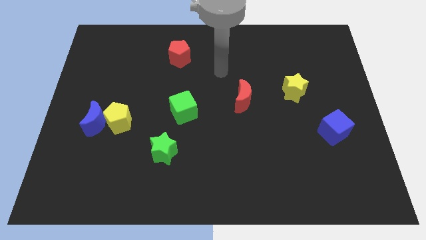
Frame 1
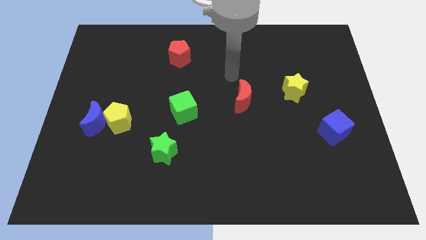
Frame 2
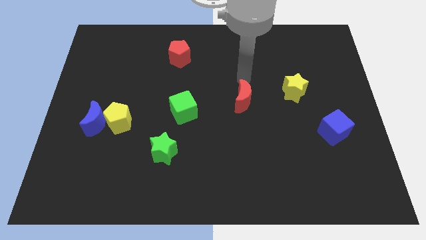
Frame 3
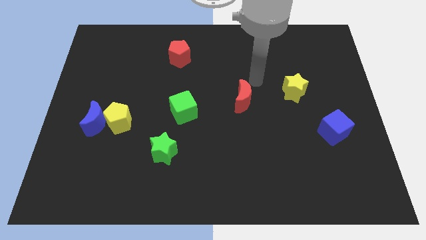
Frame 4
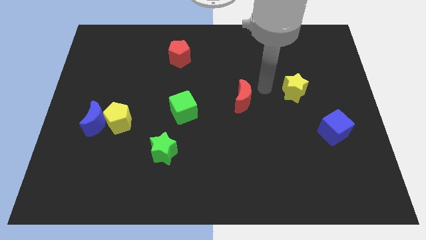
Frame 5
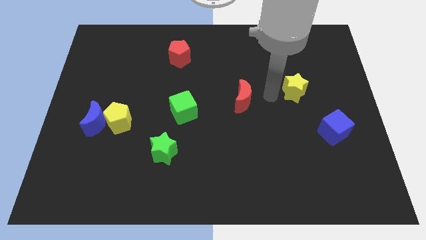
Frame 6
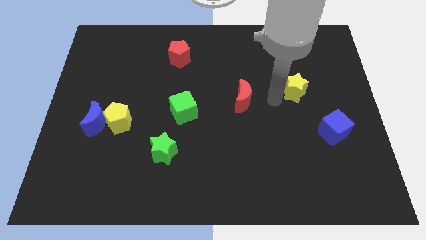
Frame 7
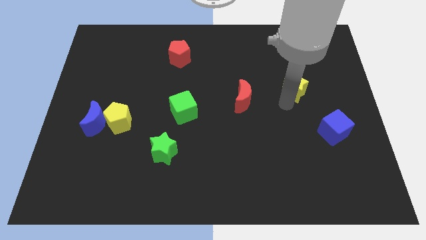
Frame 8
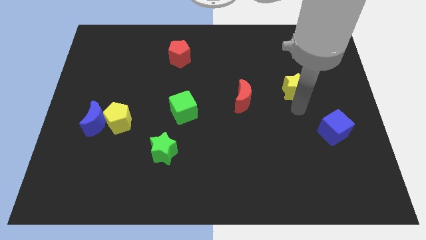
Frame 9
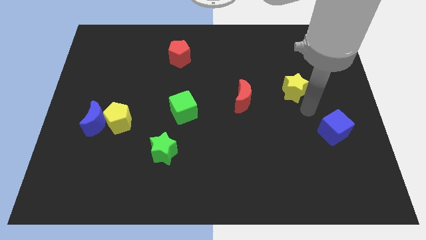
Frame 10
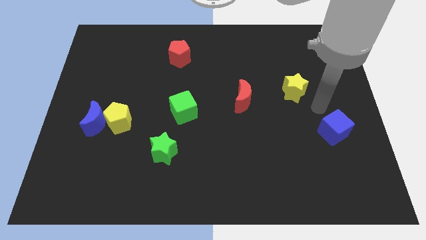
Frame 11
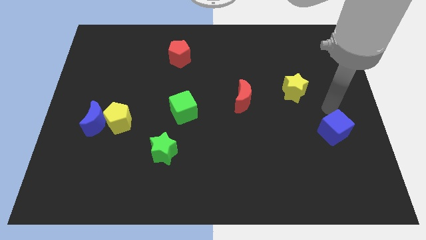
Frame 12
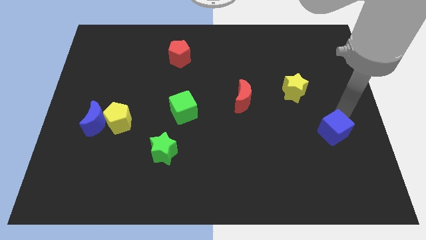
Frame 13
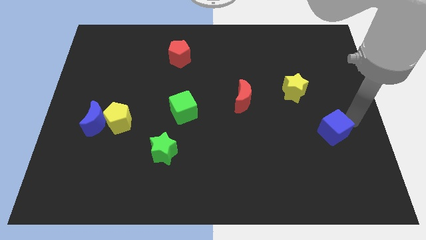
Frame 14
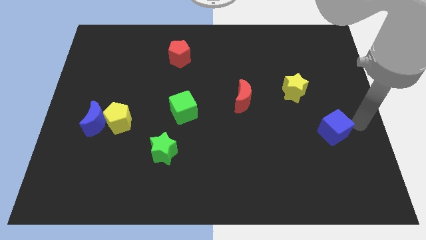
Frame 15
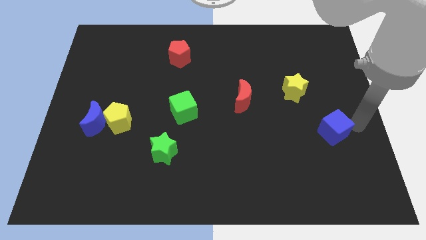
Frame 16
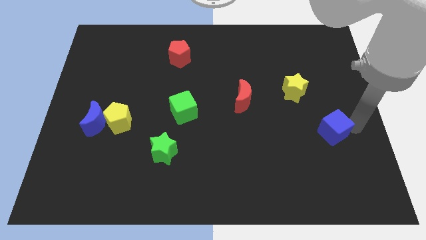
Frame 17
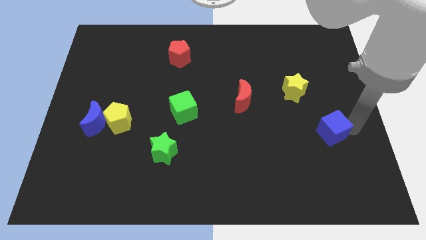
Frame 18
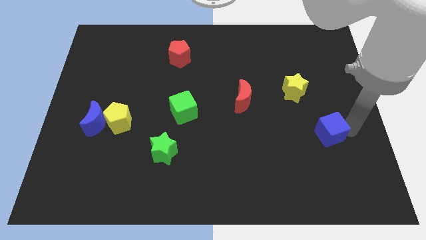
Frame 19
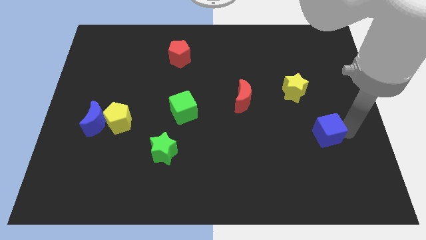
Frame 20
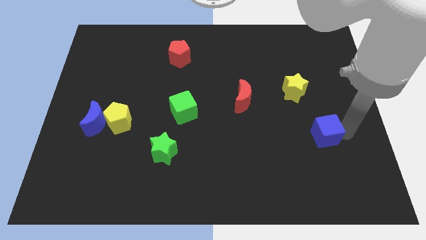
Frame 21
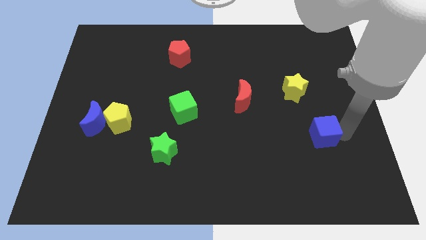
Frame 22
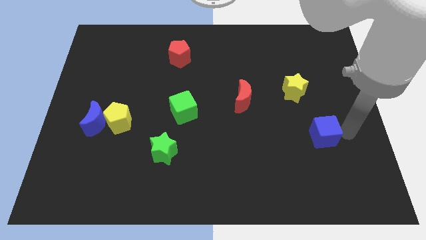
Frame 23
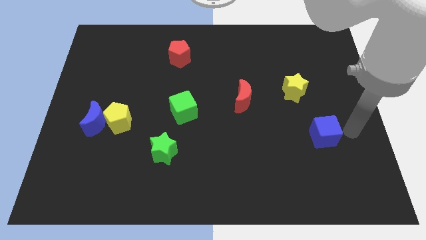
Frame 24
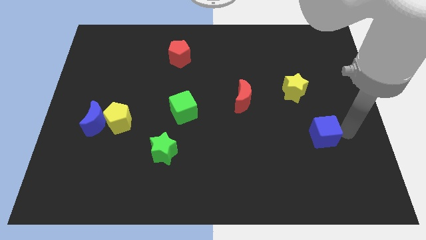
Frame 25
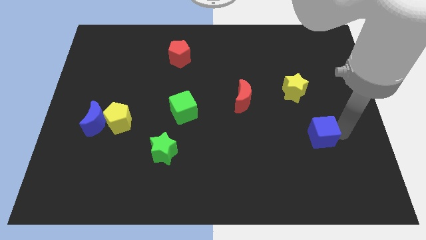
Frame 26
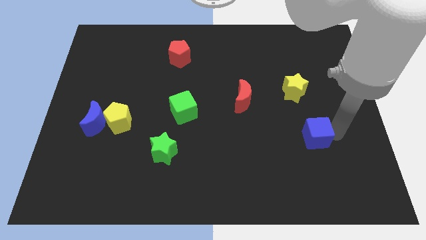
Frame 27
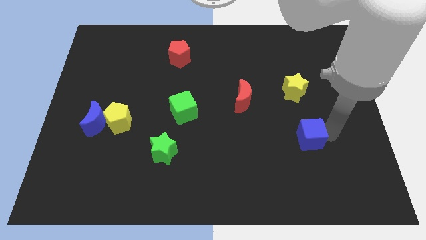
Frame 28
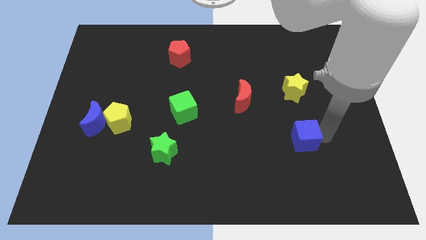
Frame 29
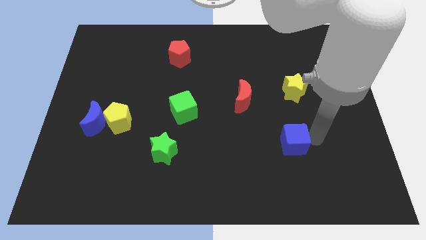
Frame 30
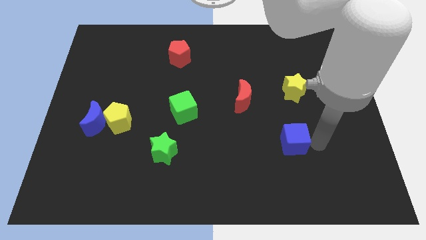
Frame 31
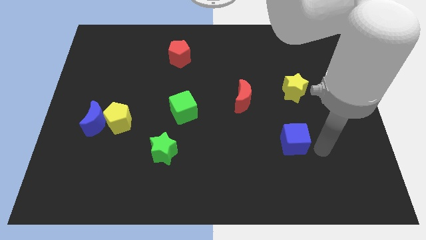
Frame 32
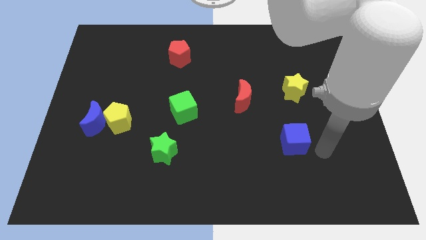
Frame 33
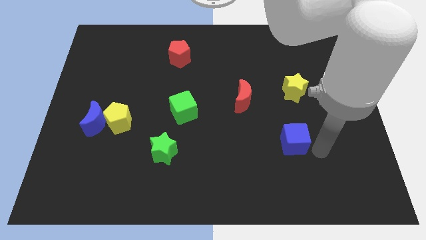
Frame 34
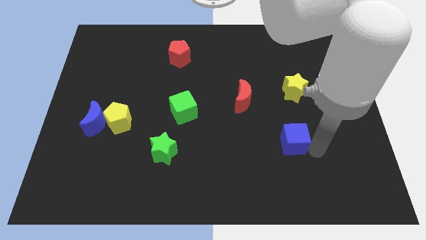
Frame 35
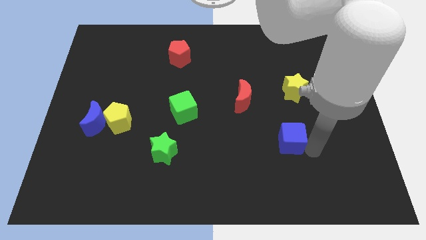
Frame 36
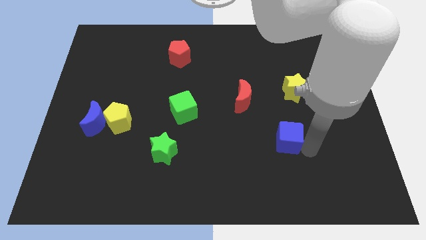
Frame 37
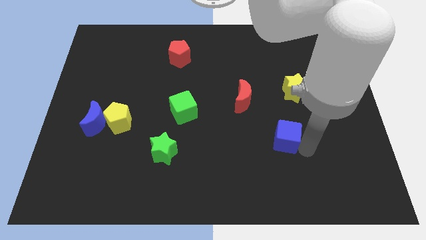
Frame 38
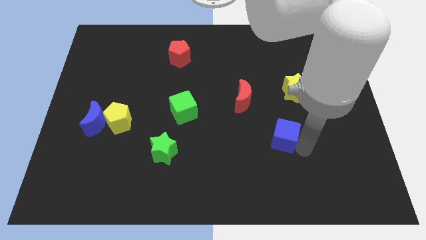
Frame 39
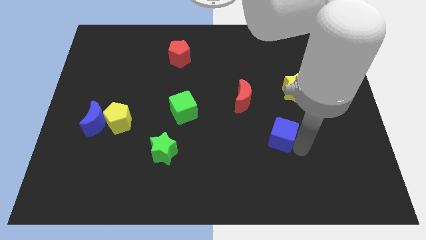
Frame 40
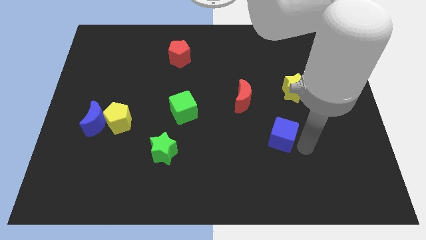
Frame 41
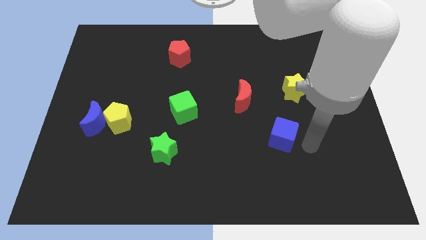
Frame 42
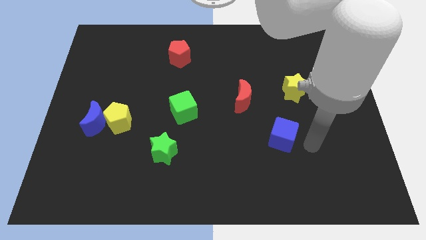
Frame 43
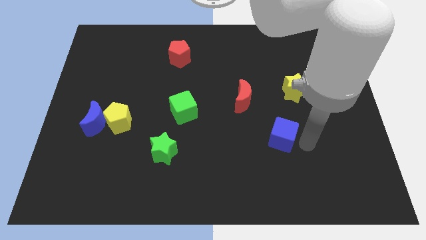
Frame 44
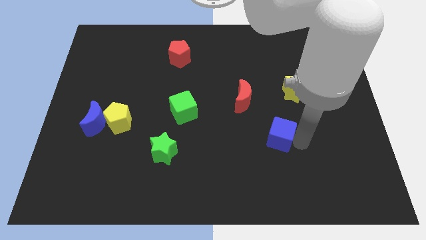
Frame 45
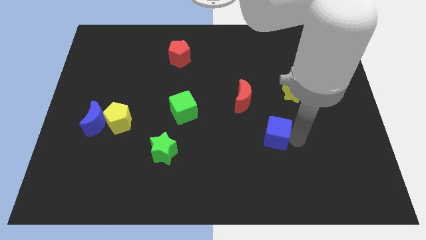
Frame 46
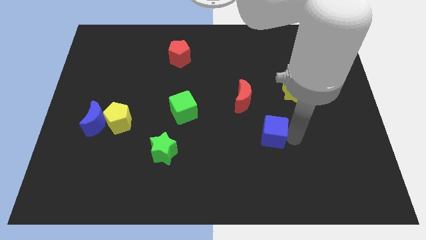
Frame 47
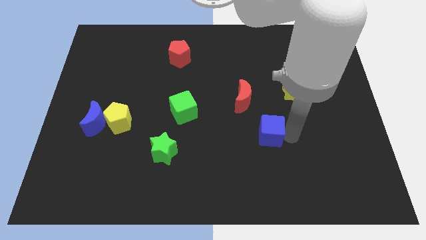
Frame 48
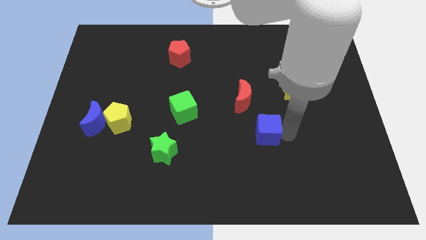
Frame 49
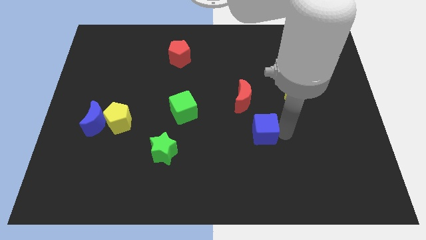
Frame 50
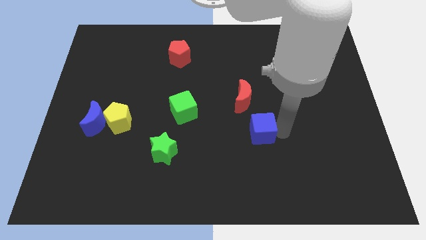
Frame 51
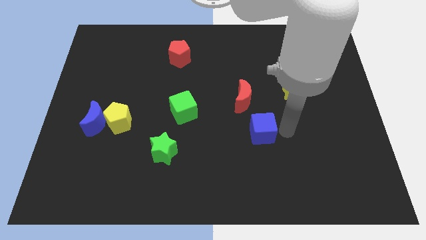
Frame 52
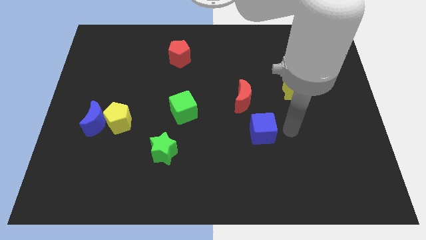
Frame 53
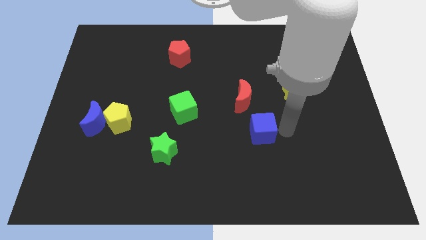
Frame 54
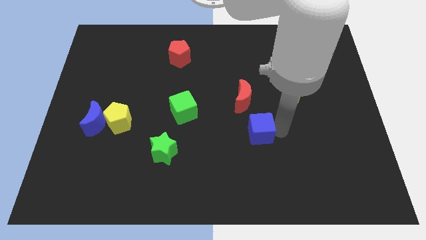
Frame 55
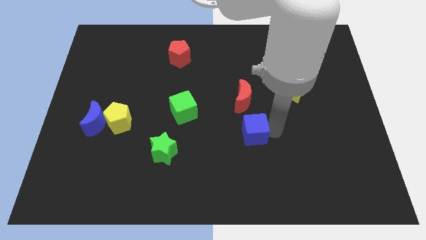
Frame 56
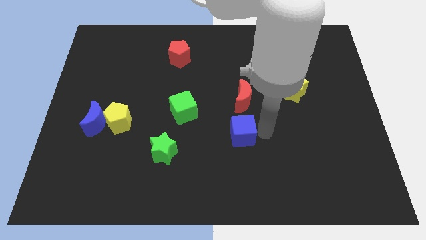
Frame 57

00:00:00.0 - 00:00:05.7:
push the blue cube left

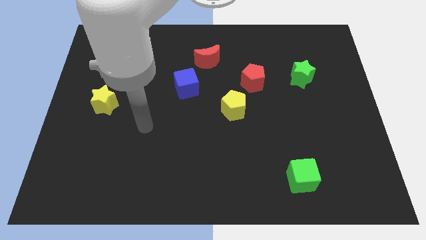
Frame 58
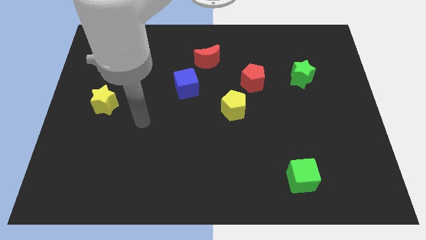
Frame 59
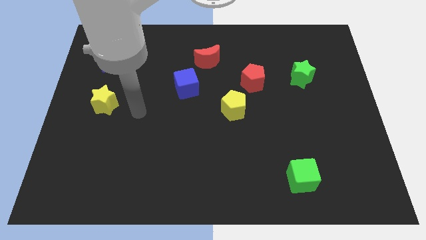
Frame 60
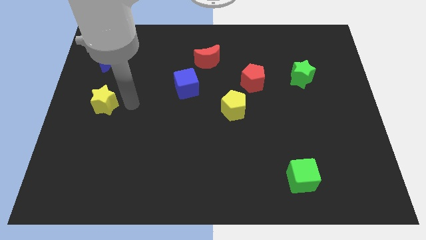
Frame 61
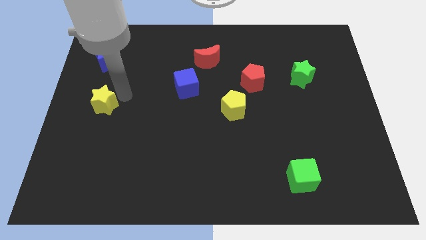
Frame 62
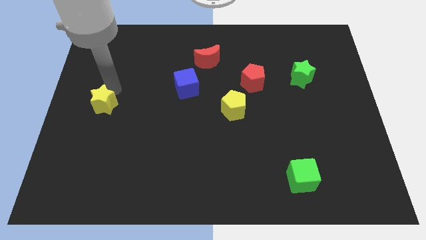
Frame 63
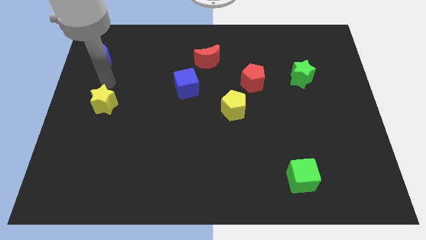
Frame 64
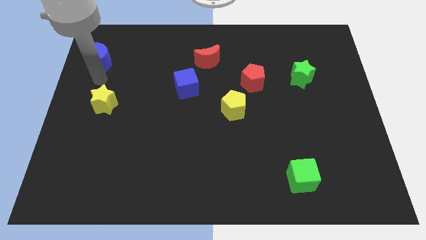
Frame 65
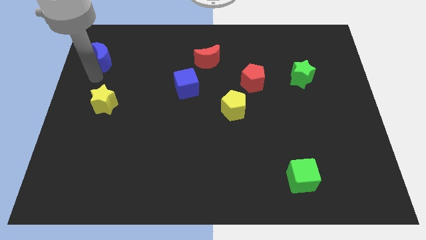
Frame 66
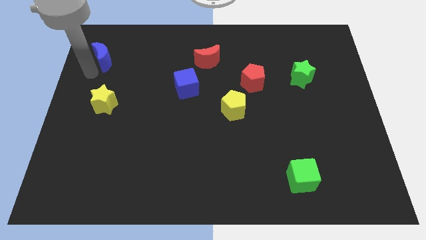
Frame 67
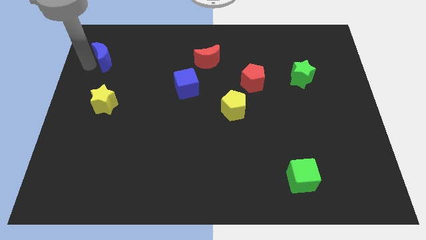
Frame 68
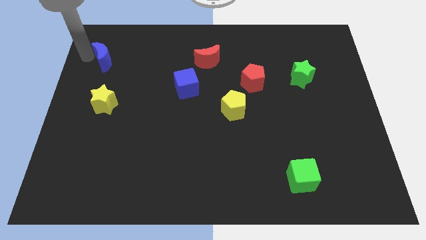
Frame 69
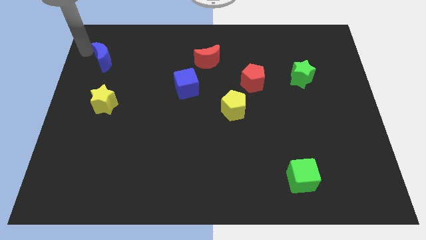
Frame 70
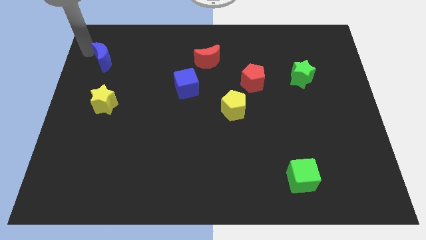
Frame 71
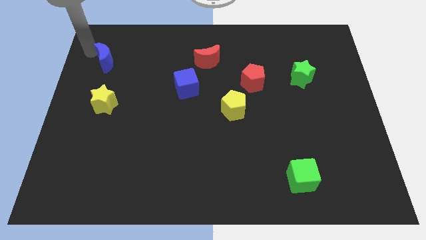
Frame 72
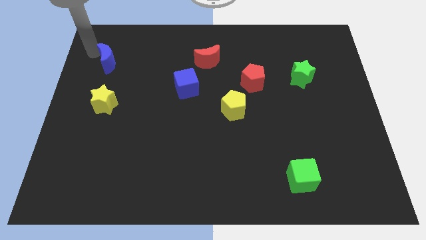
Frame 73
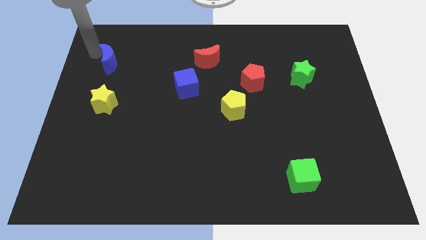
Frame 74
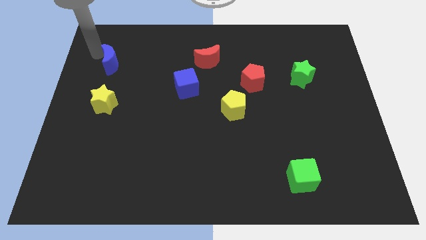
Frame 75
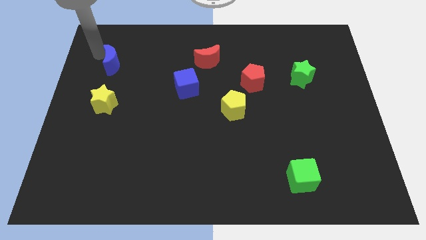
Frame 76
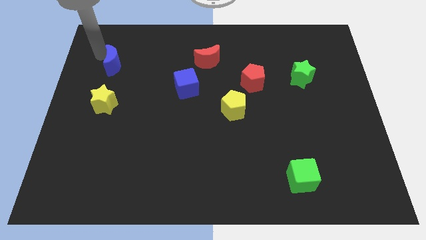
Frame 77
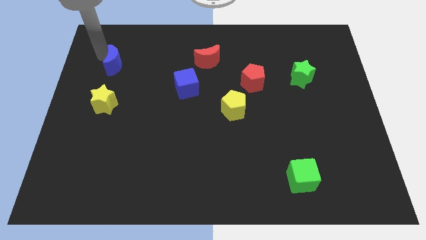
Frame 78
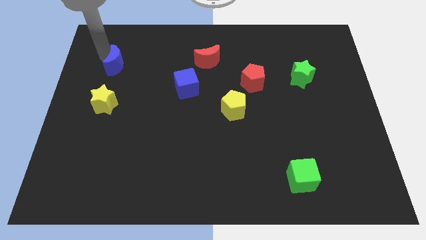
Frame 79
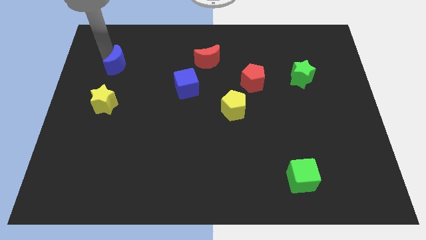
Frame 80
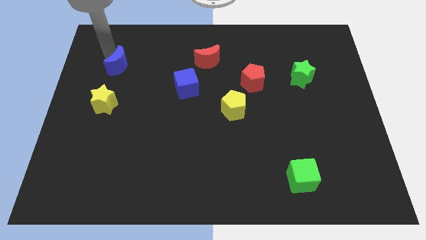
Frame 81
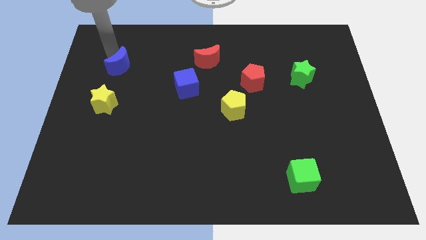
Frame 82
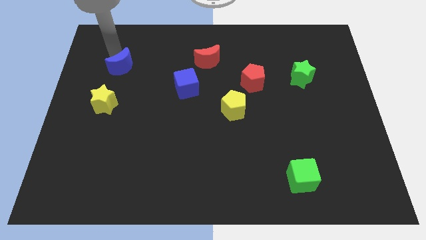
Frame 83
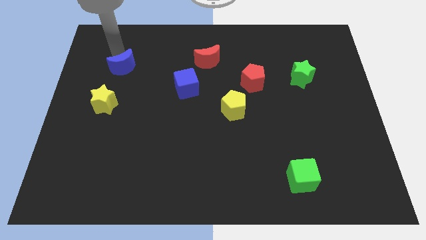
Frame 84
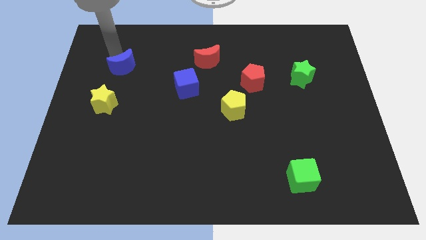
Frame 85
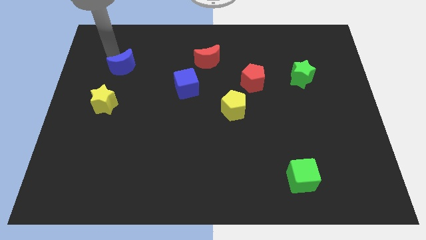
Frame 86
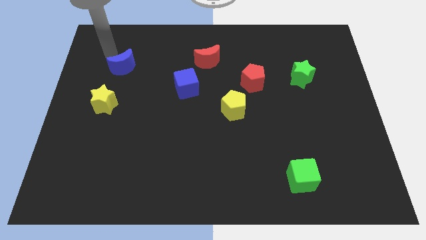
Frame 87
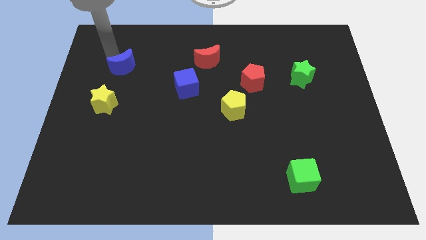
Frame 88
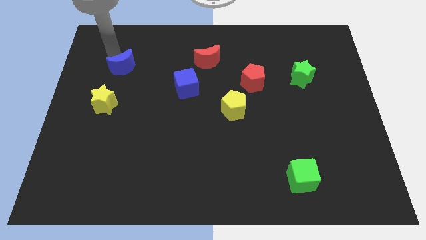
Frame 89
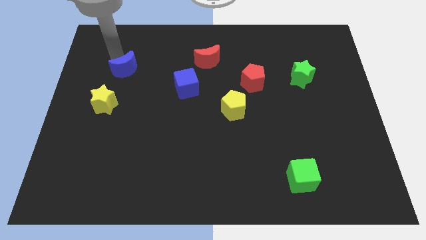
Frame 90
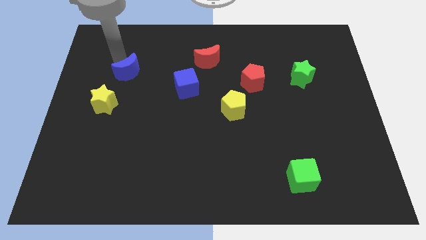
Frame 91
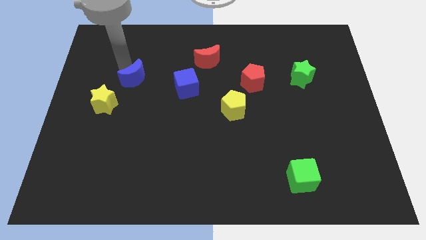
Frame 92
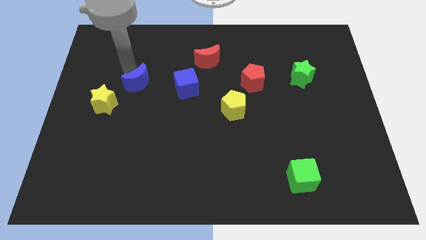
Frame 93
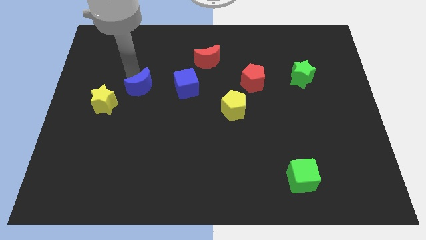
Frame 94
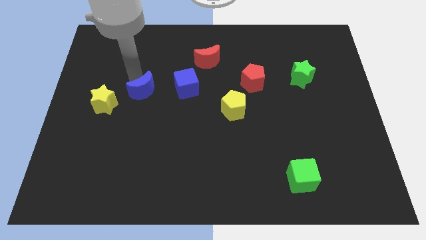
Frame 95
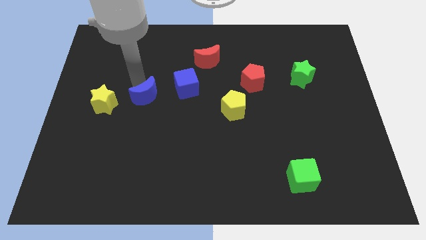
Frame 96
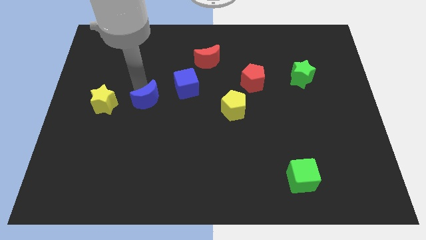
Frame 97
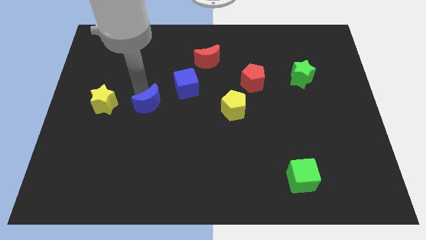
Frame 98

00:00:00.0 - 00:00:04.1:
push the blue moon downwards and then right
